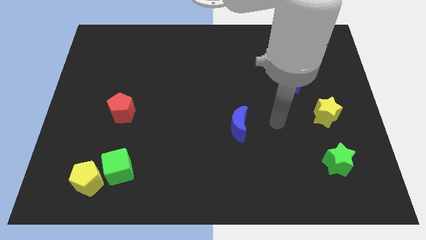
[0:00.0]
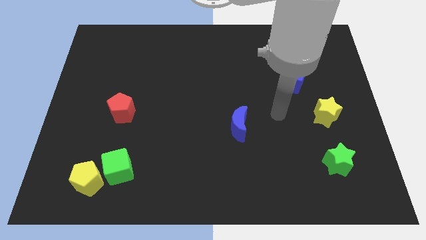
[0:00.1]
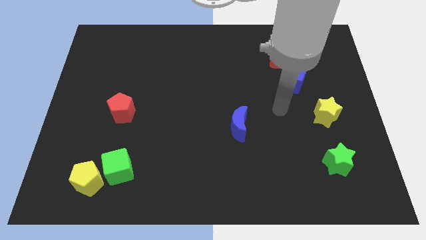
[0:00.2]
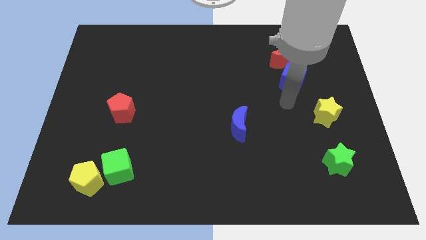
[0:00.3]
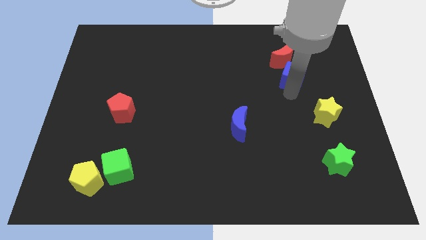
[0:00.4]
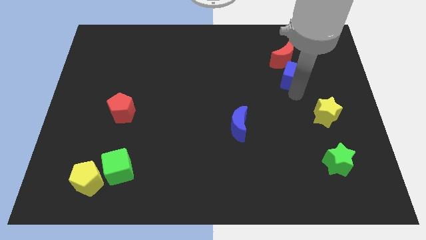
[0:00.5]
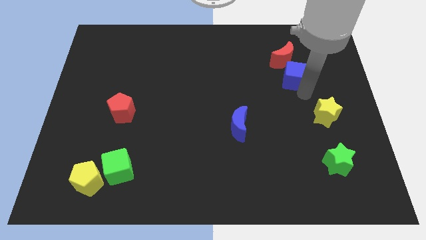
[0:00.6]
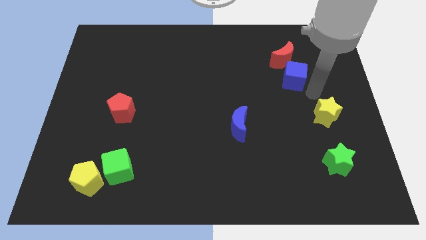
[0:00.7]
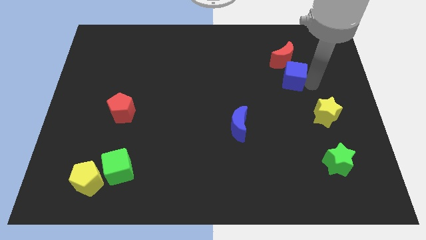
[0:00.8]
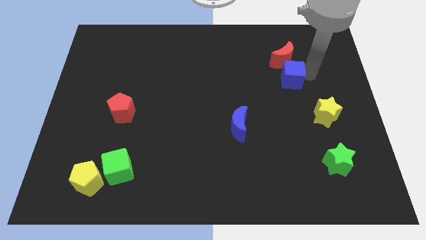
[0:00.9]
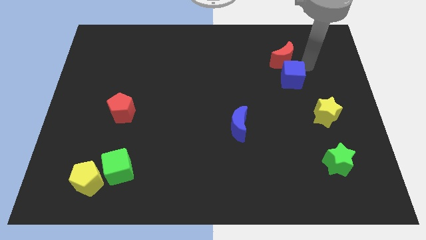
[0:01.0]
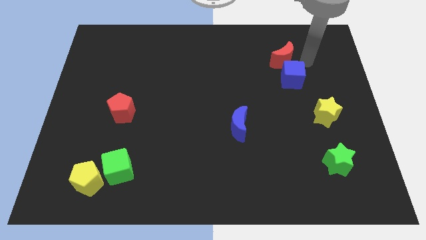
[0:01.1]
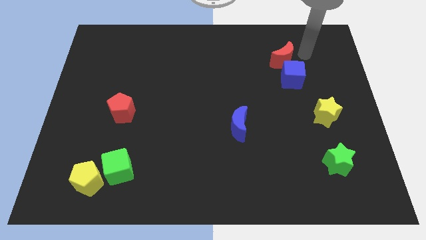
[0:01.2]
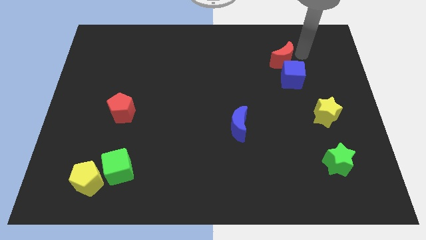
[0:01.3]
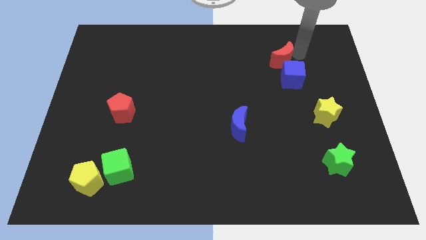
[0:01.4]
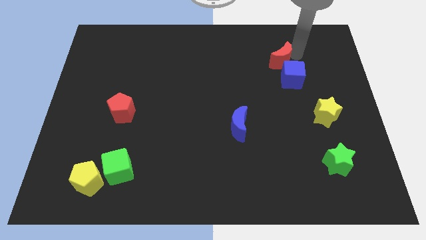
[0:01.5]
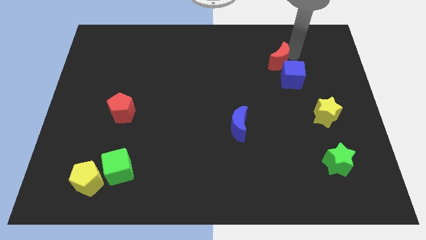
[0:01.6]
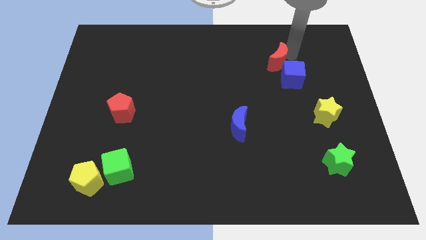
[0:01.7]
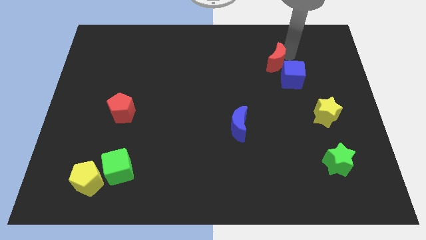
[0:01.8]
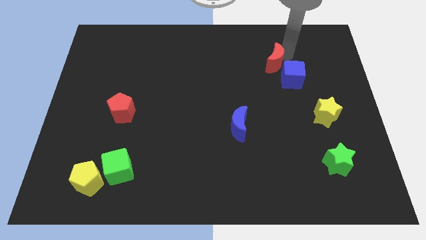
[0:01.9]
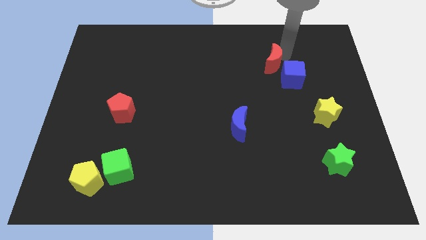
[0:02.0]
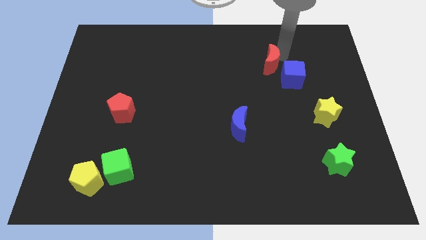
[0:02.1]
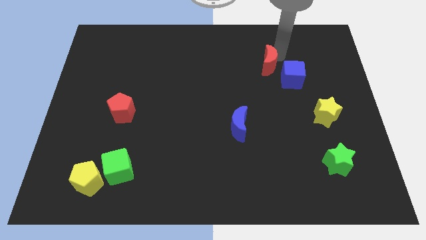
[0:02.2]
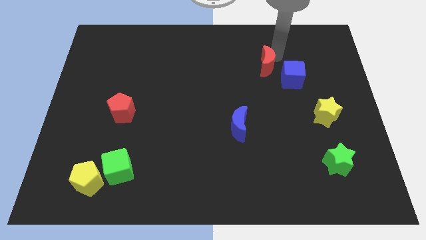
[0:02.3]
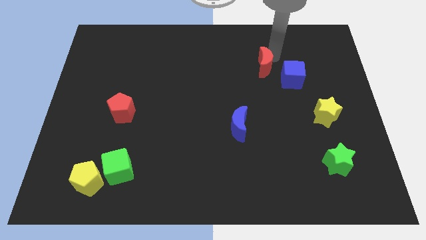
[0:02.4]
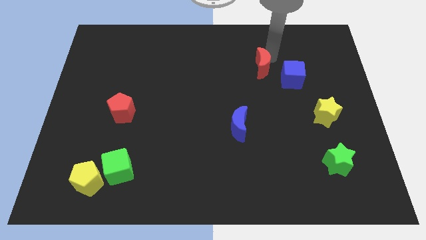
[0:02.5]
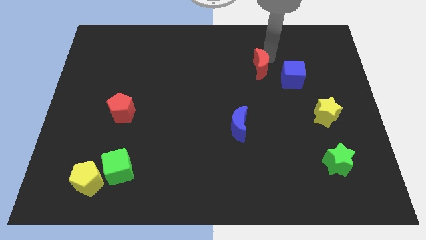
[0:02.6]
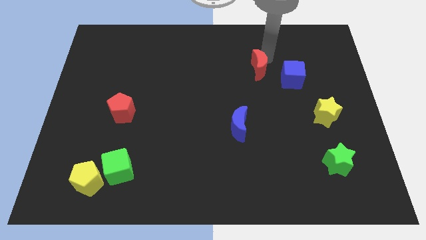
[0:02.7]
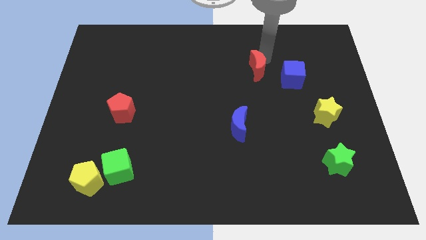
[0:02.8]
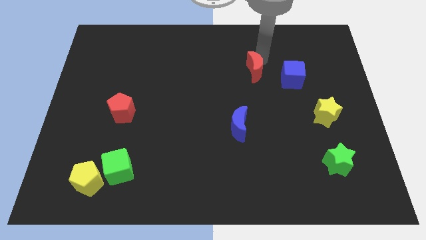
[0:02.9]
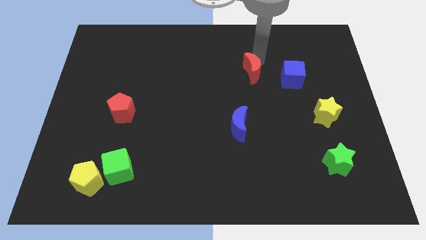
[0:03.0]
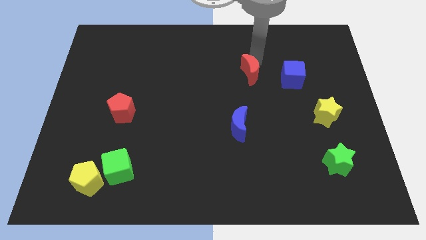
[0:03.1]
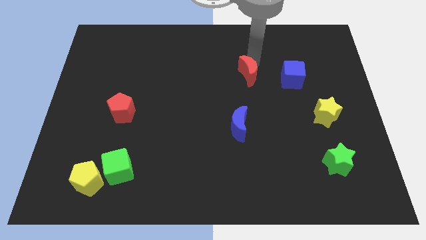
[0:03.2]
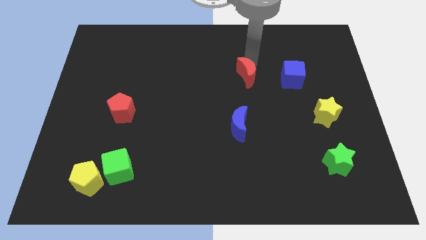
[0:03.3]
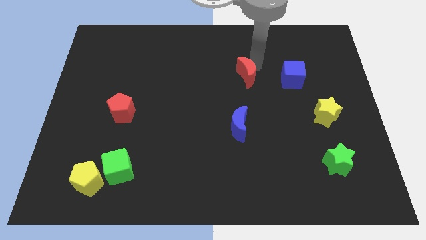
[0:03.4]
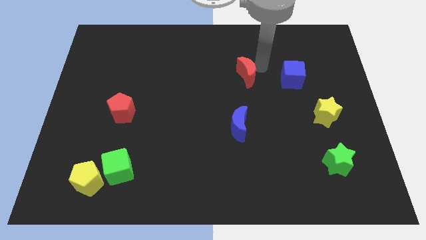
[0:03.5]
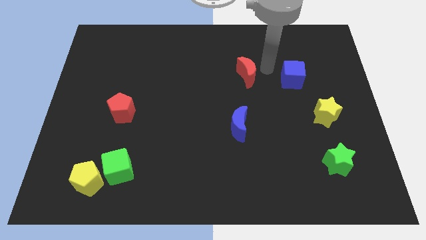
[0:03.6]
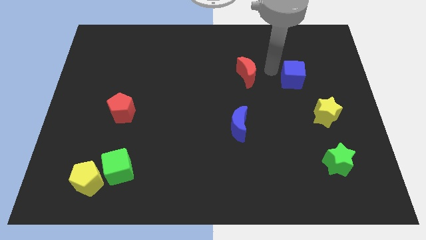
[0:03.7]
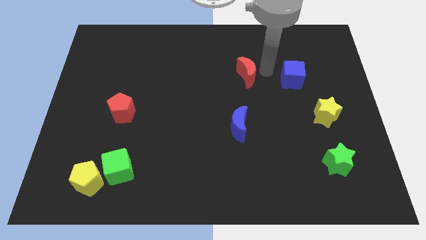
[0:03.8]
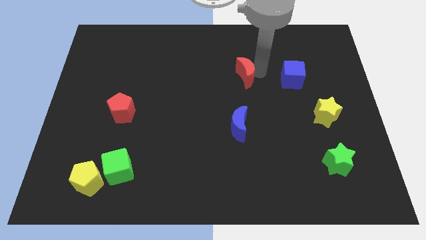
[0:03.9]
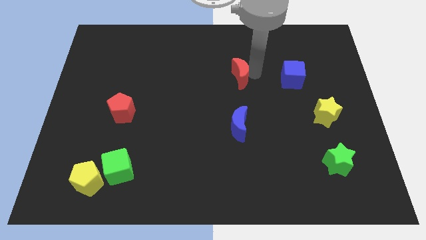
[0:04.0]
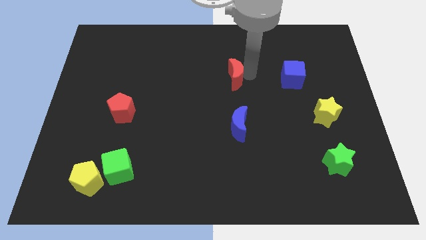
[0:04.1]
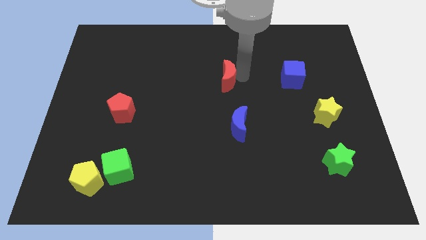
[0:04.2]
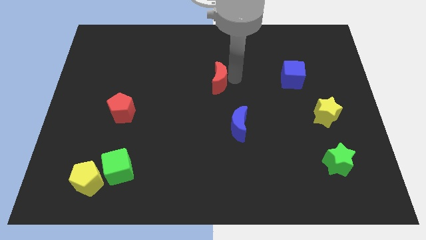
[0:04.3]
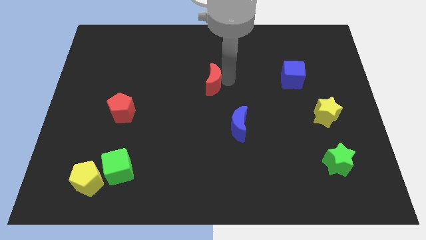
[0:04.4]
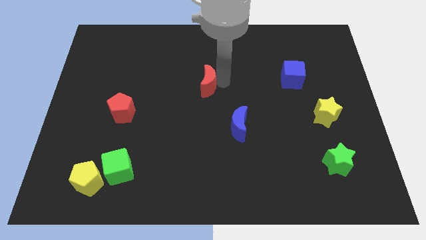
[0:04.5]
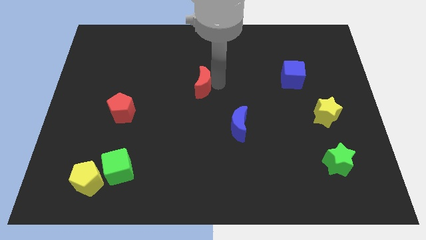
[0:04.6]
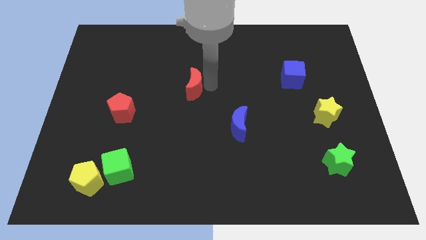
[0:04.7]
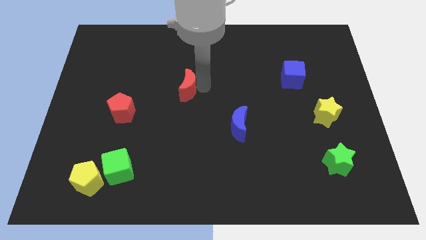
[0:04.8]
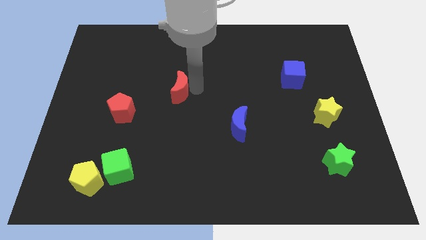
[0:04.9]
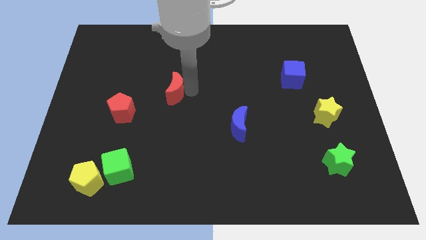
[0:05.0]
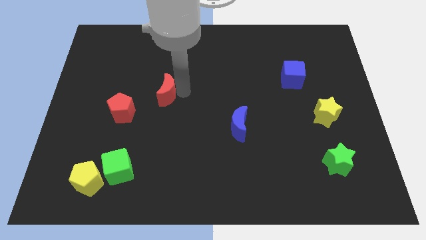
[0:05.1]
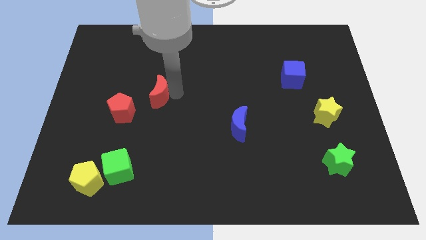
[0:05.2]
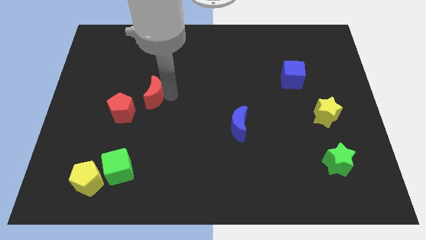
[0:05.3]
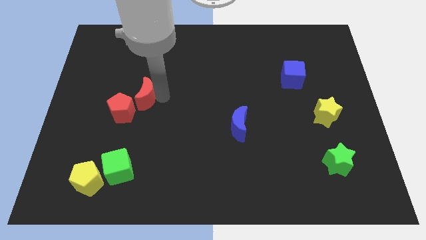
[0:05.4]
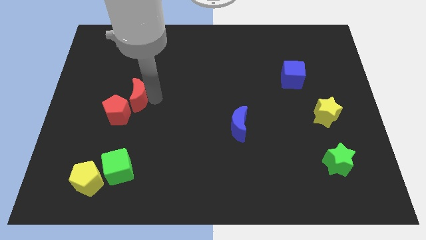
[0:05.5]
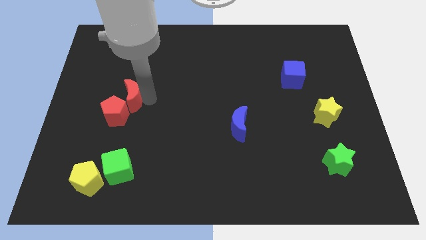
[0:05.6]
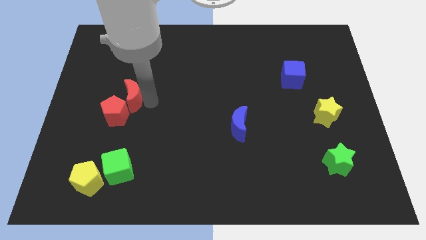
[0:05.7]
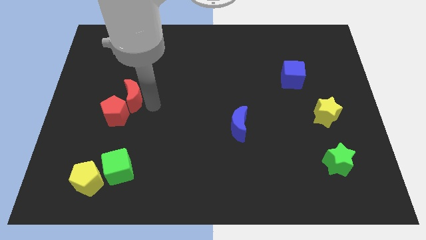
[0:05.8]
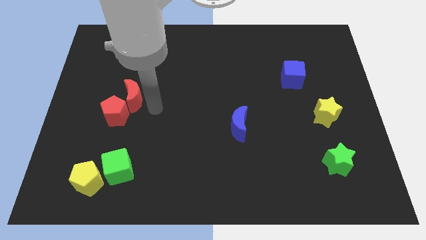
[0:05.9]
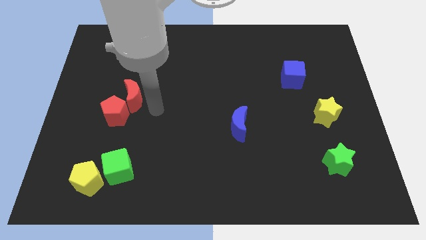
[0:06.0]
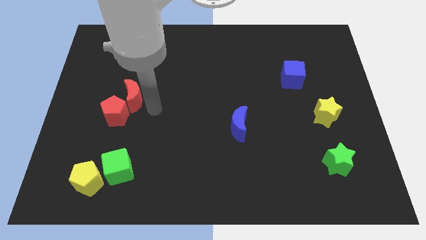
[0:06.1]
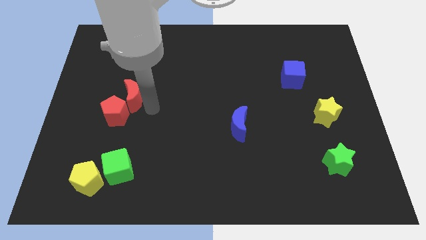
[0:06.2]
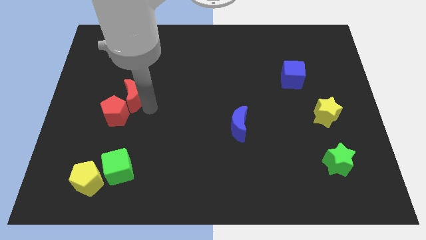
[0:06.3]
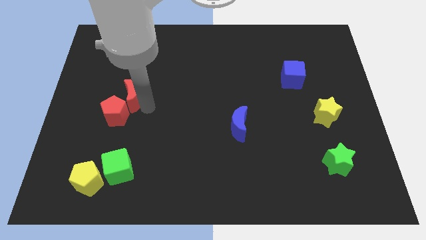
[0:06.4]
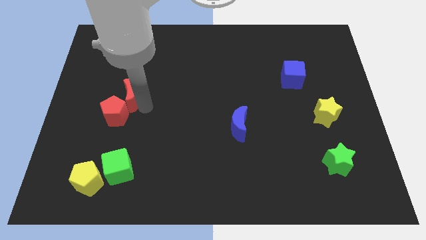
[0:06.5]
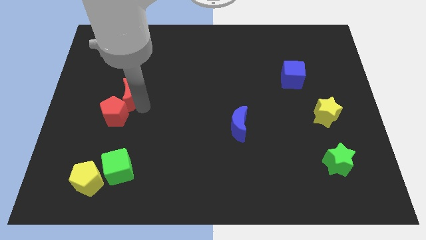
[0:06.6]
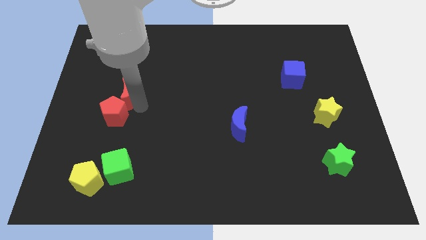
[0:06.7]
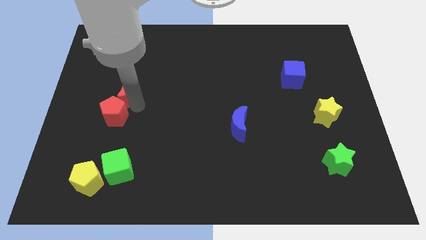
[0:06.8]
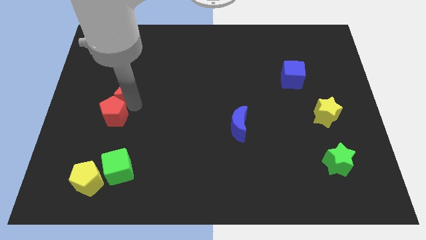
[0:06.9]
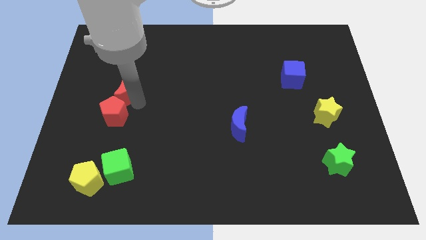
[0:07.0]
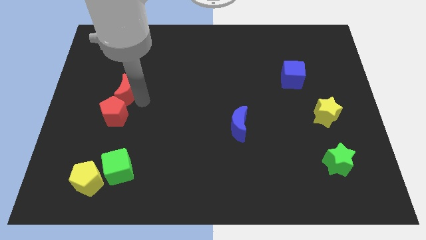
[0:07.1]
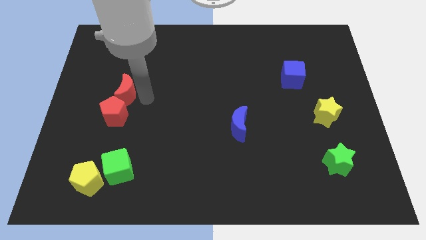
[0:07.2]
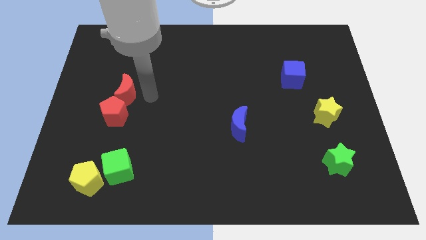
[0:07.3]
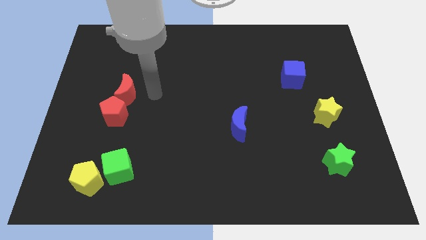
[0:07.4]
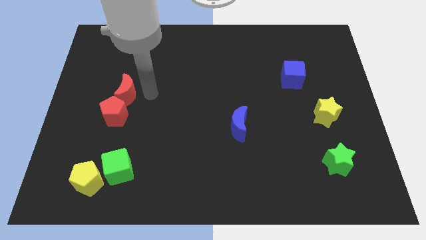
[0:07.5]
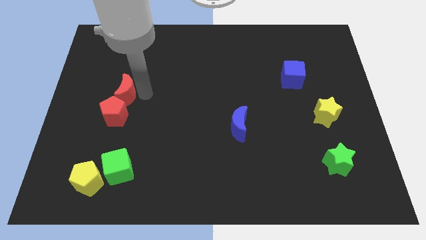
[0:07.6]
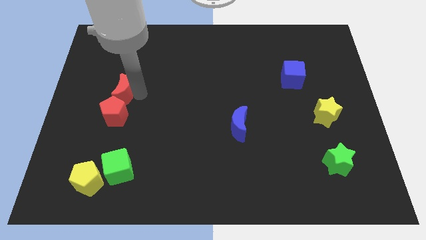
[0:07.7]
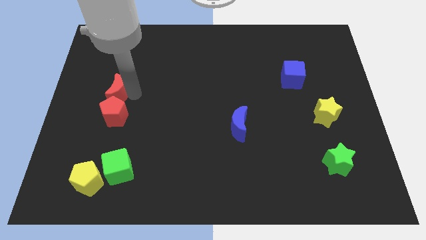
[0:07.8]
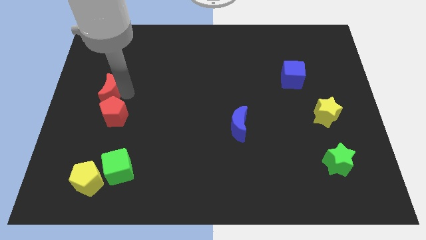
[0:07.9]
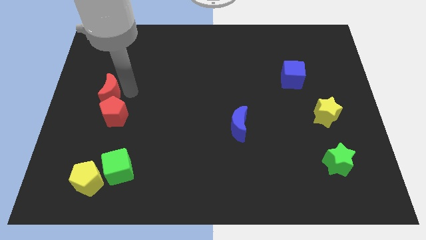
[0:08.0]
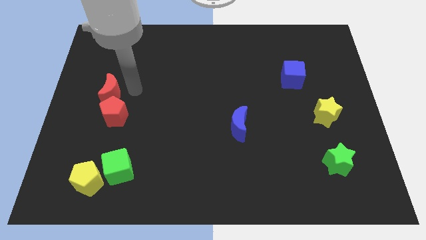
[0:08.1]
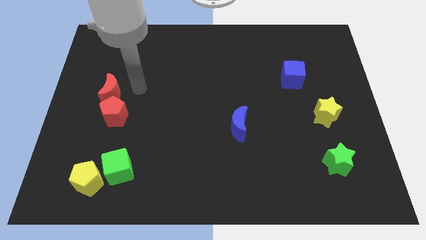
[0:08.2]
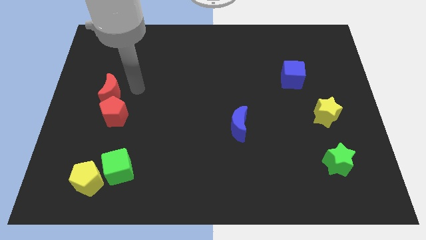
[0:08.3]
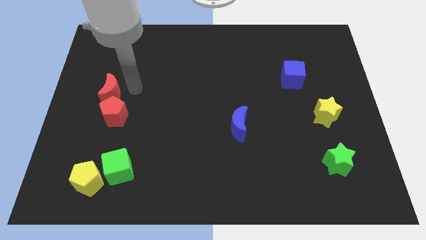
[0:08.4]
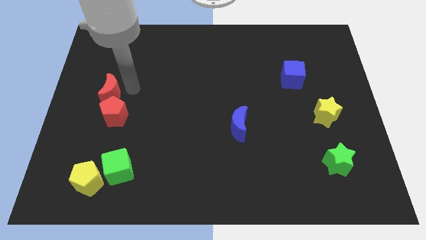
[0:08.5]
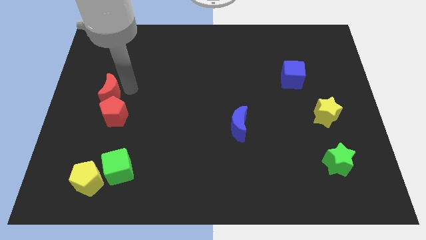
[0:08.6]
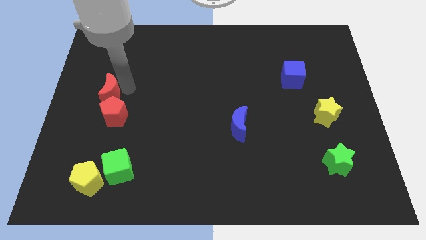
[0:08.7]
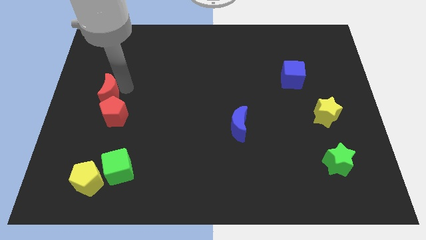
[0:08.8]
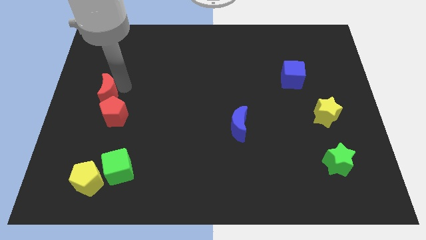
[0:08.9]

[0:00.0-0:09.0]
push the red moon to the left side
